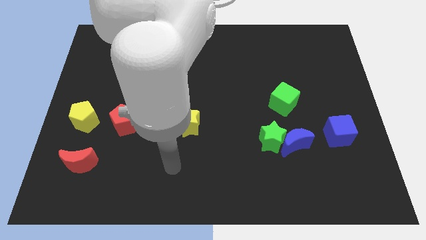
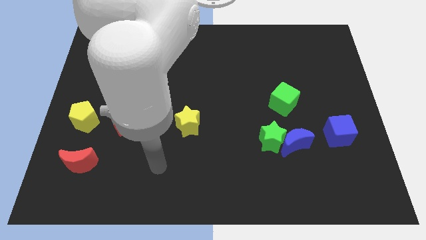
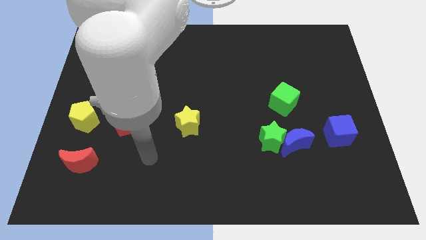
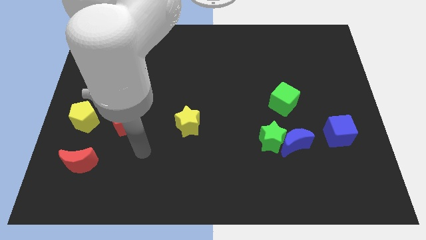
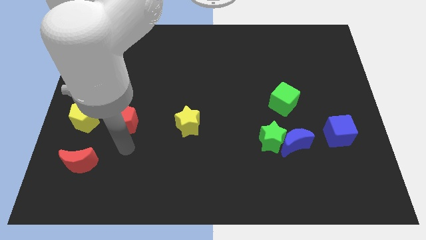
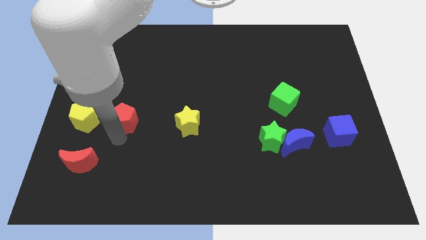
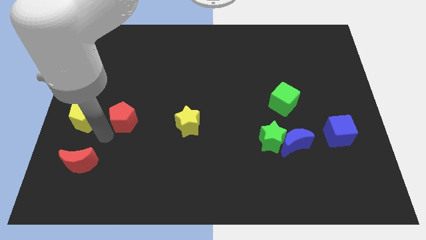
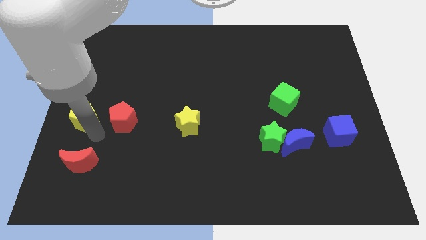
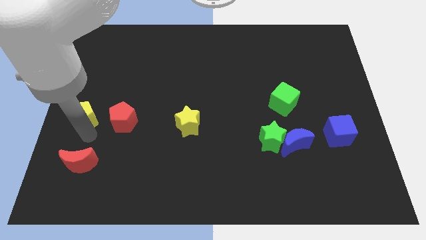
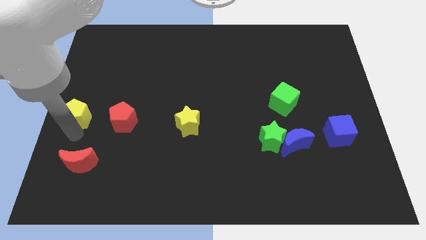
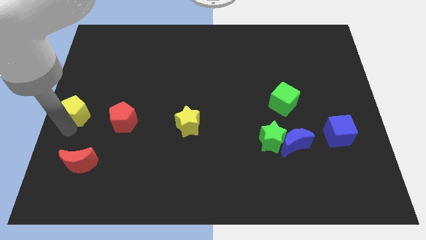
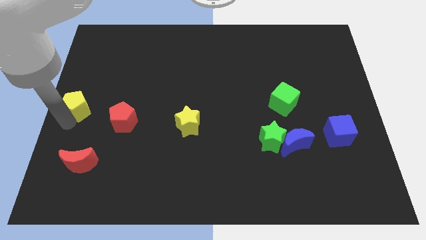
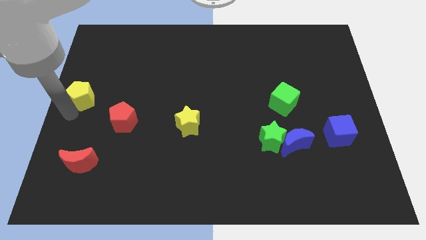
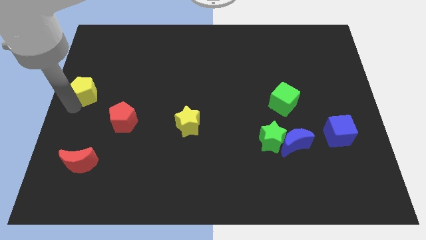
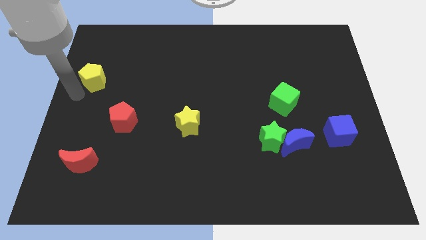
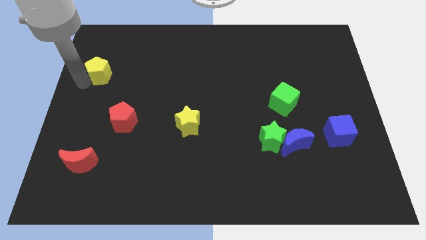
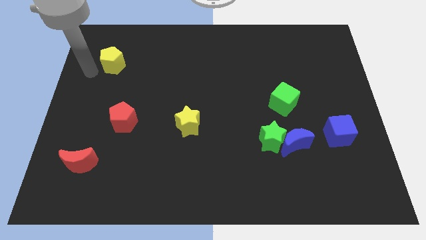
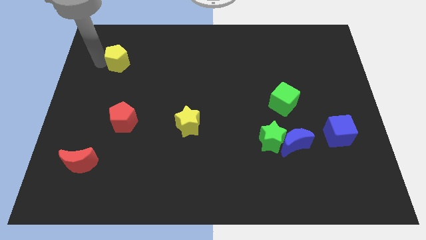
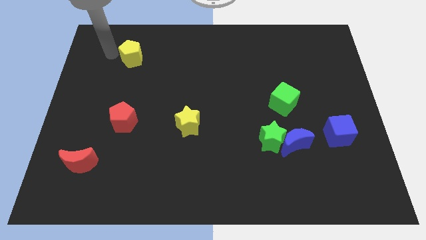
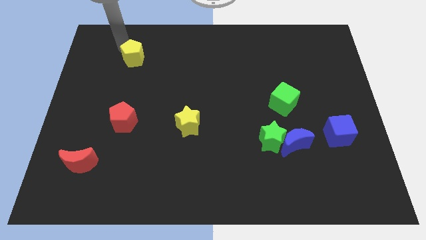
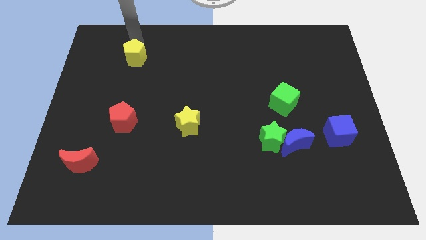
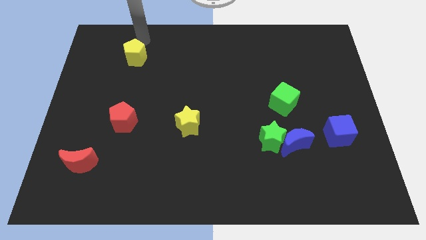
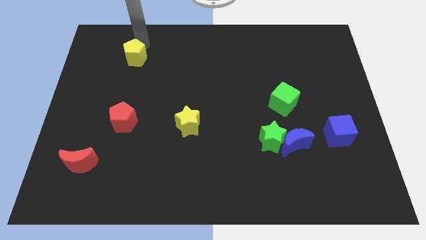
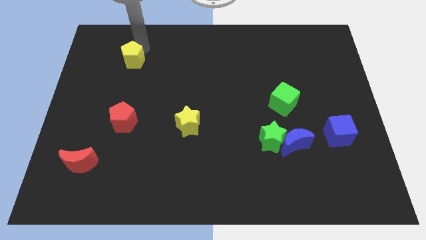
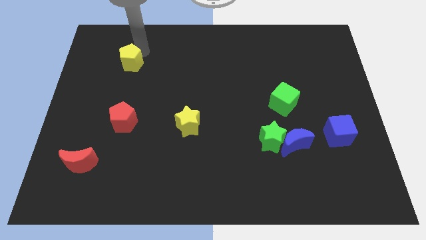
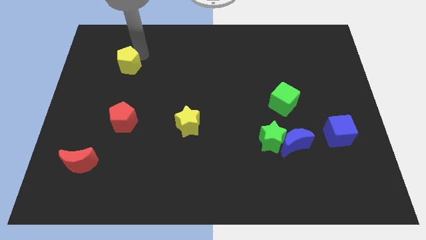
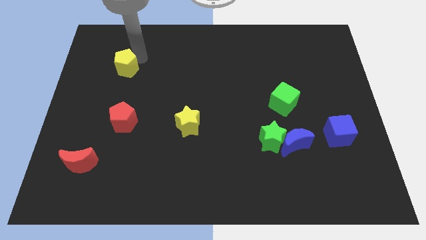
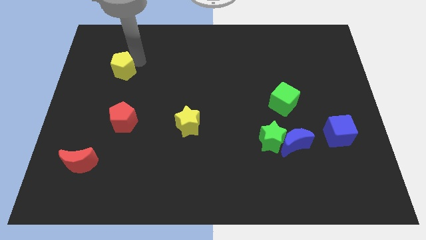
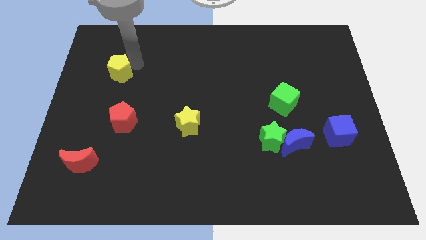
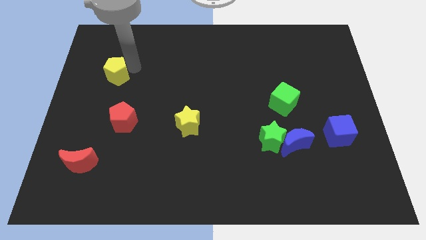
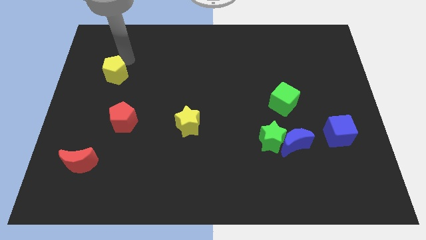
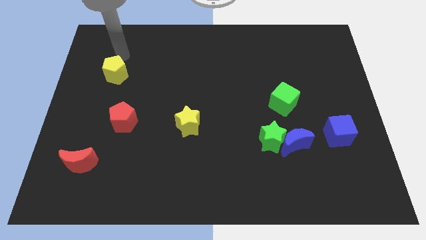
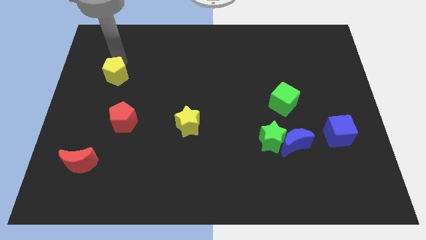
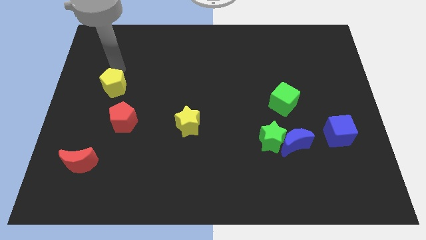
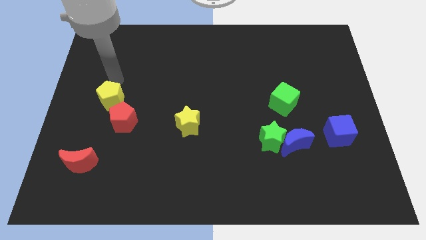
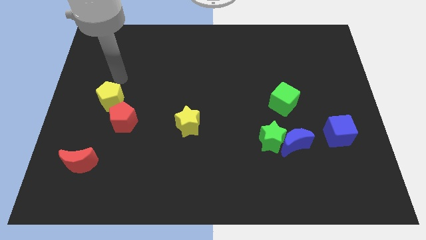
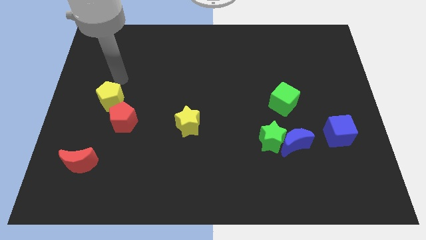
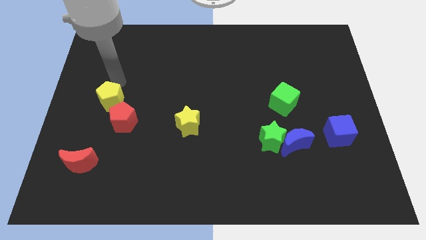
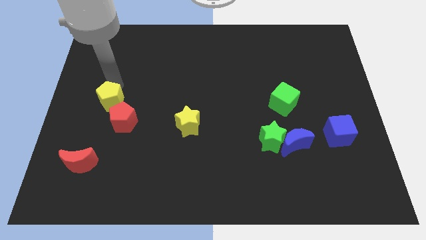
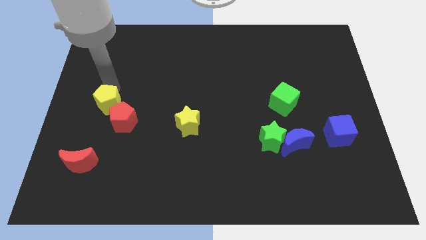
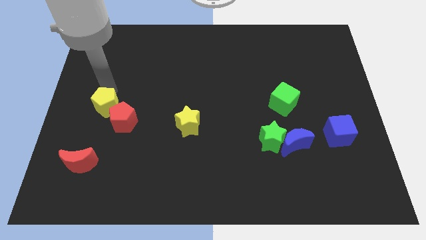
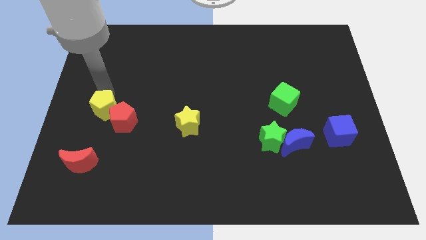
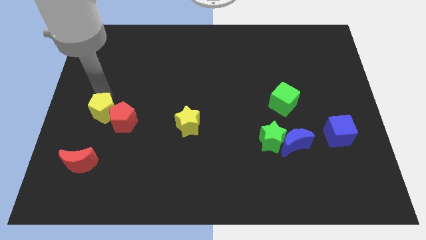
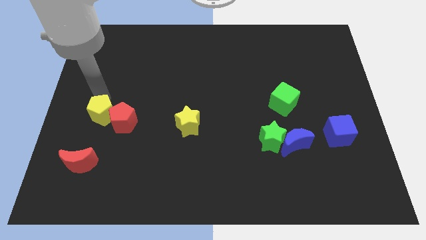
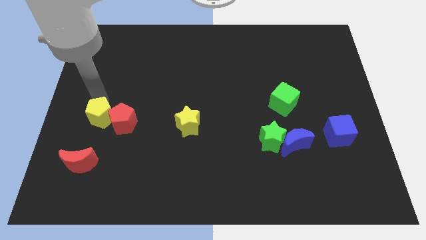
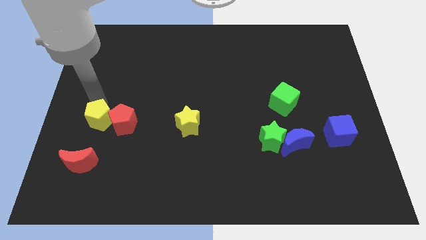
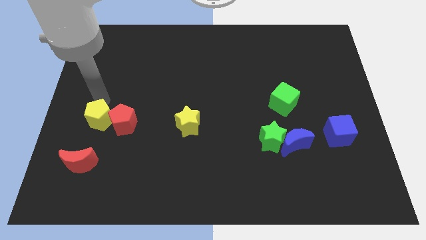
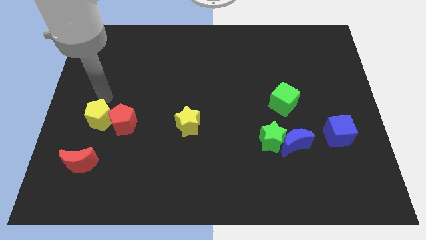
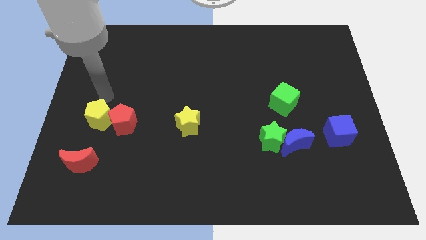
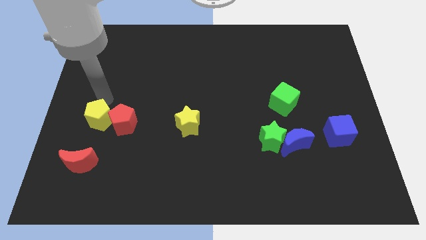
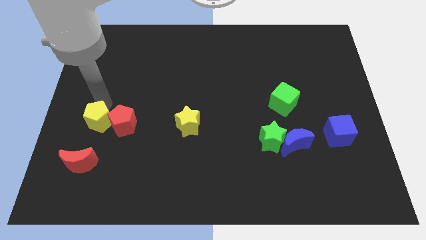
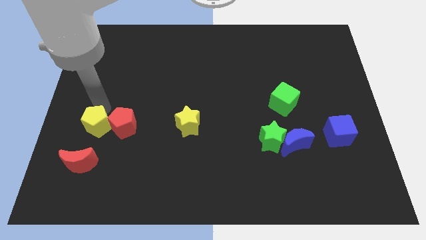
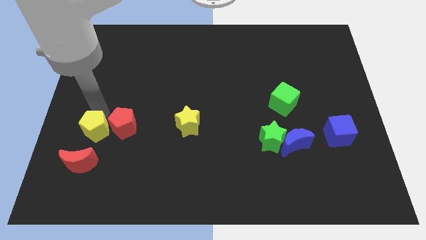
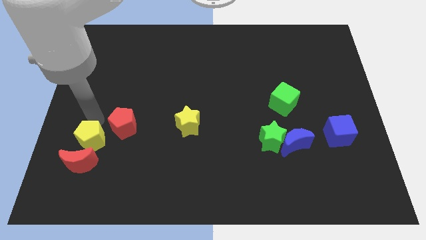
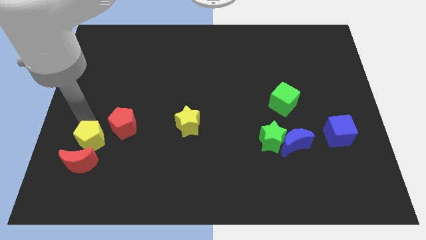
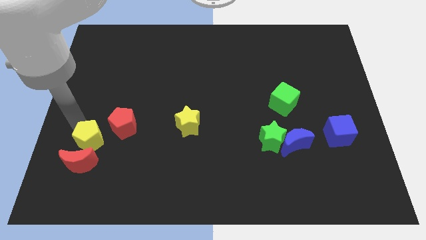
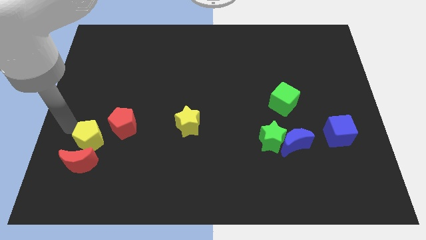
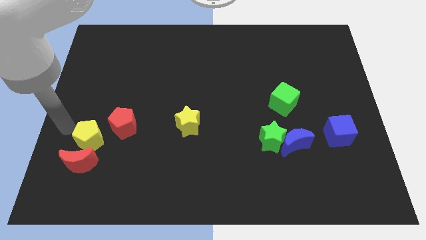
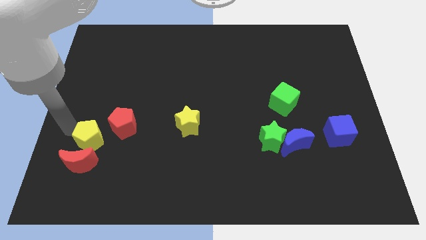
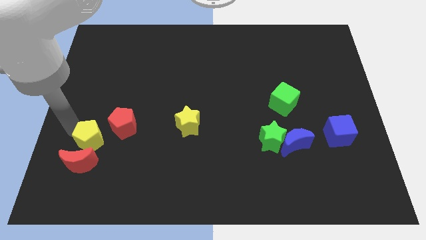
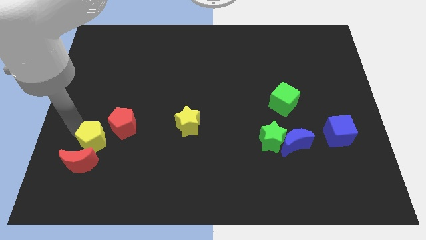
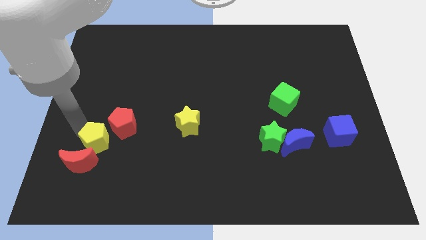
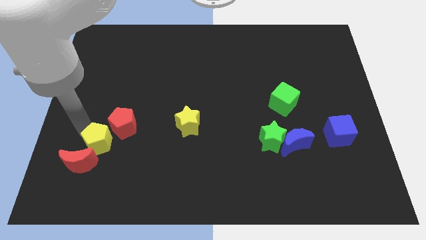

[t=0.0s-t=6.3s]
push the yellow pentagon diagonally down and right somewhat

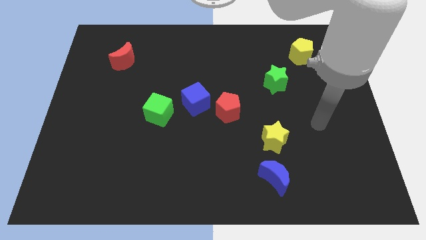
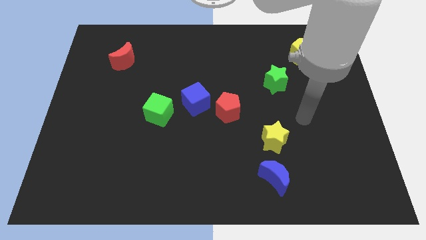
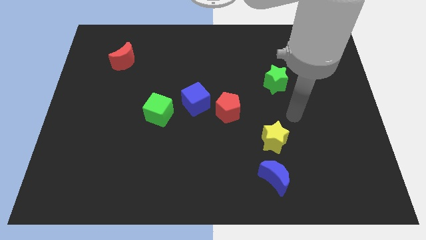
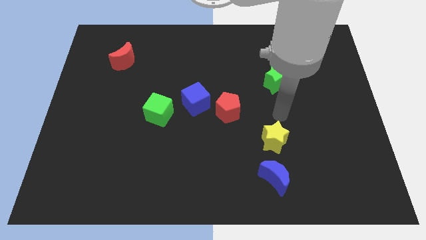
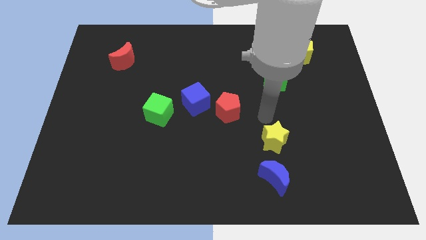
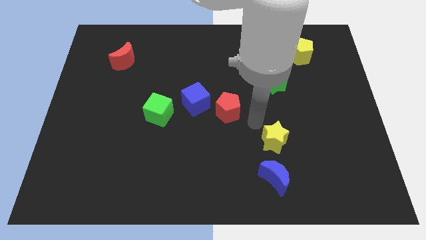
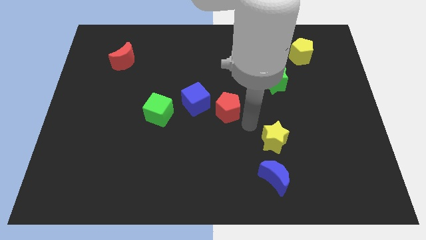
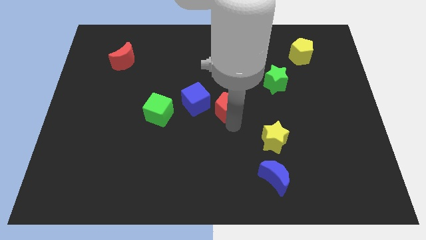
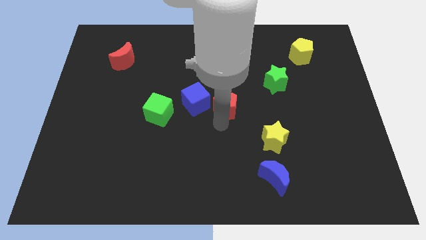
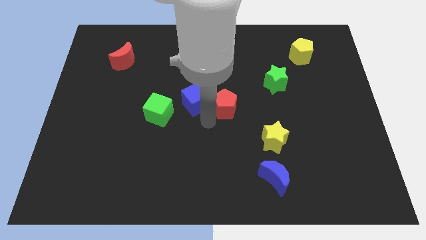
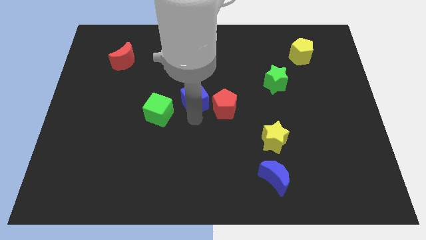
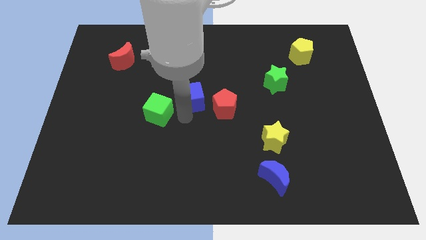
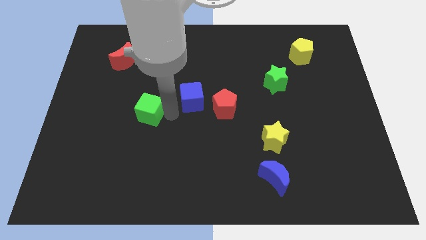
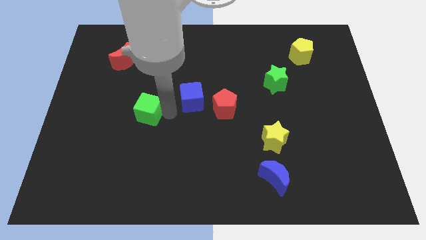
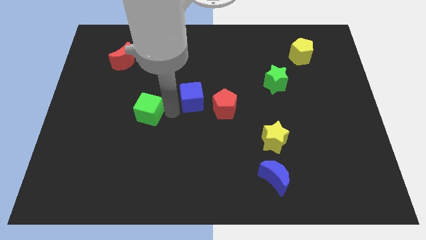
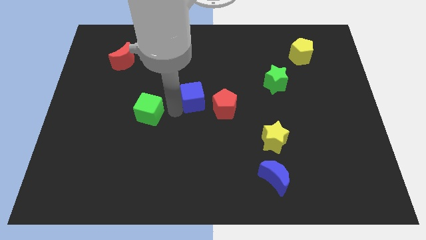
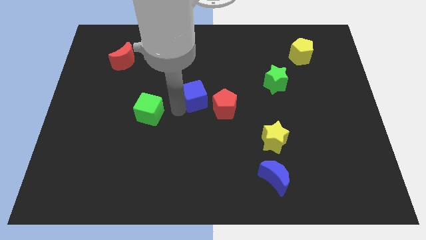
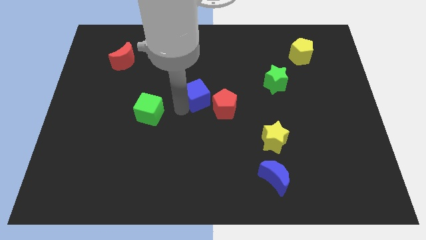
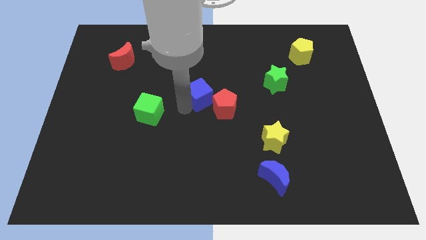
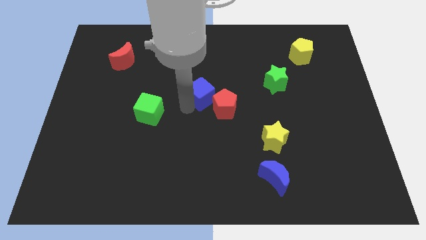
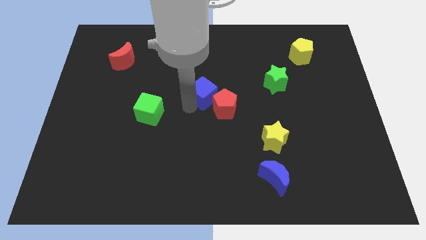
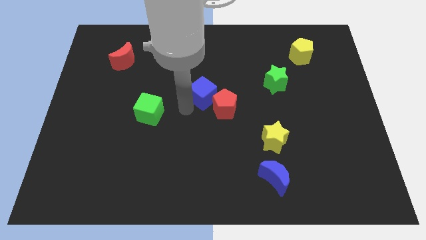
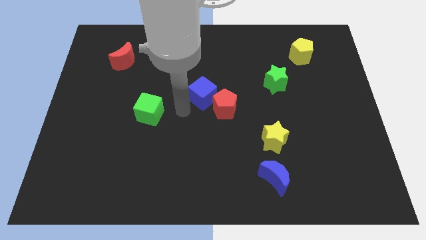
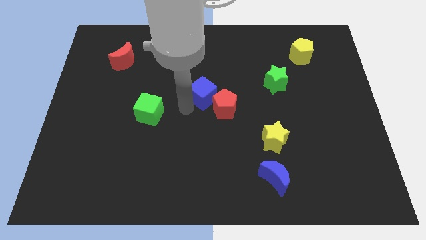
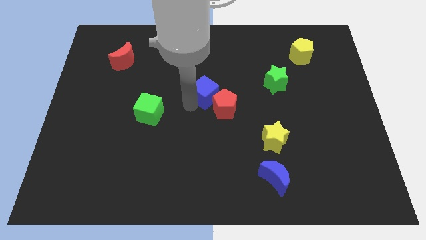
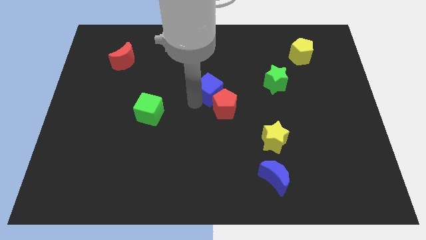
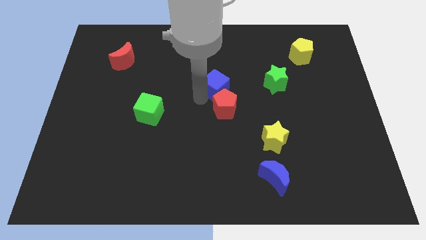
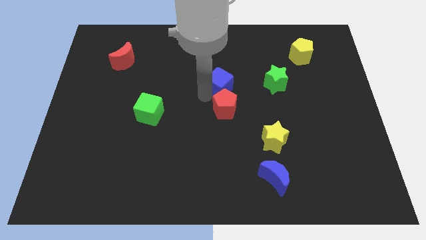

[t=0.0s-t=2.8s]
push the blue cube up and right diagonally slightly
